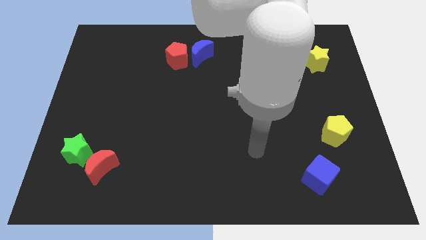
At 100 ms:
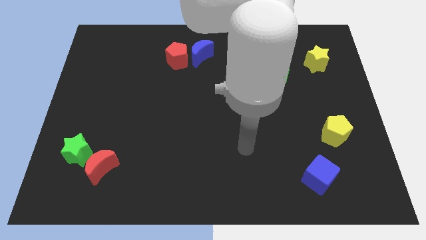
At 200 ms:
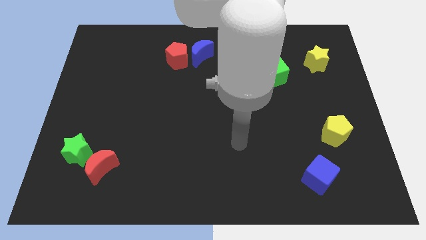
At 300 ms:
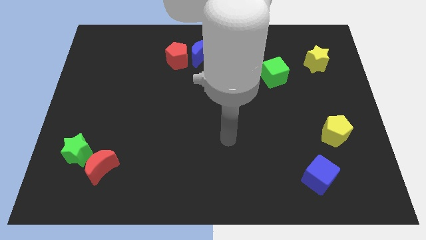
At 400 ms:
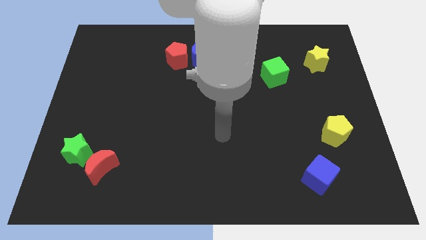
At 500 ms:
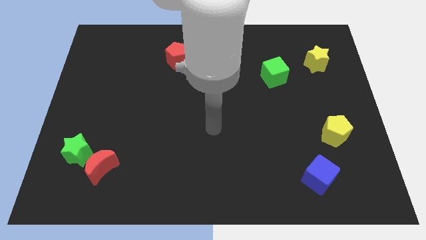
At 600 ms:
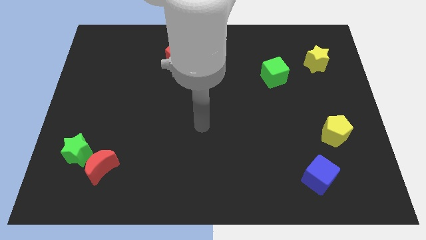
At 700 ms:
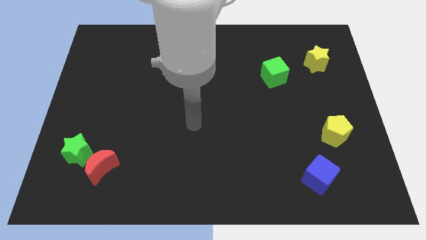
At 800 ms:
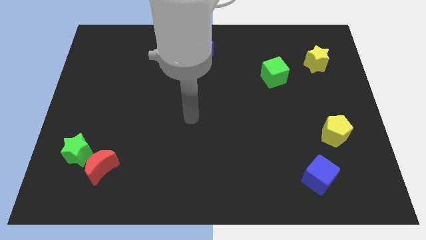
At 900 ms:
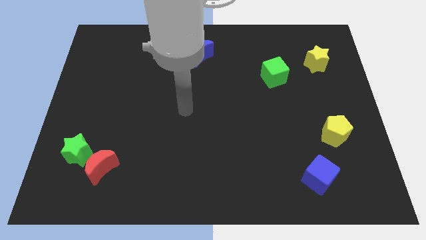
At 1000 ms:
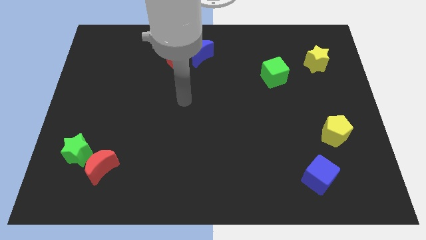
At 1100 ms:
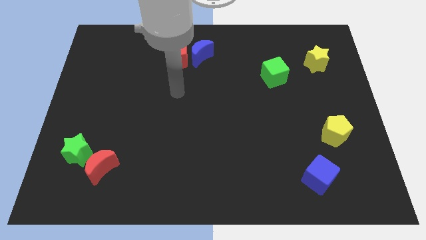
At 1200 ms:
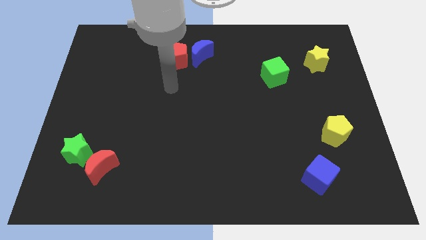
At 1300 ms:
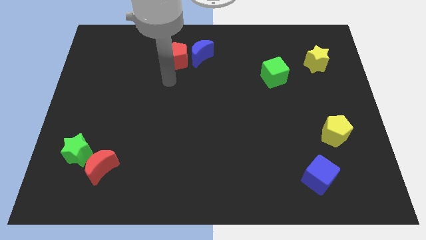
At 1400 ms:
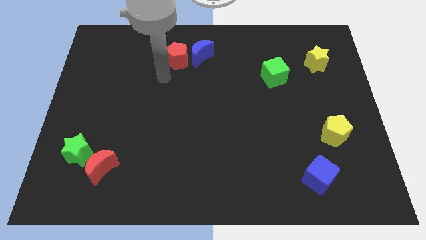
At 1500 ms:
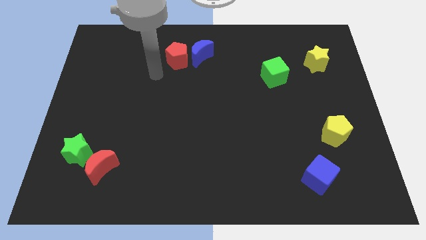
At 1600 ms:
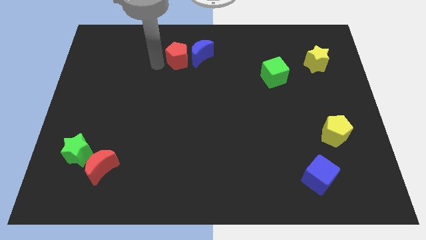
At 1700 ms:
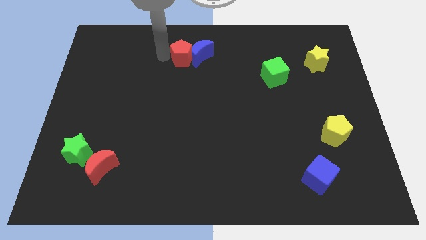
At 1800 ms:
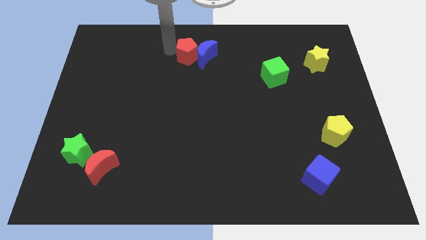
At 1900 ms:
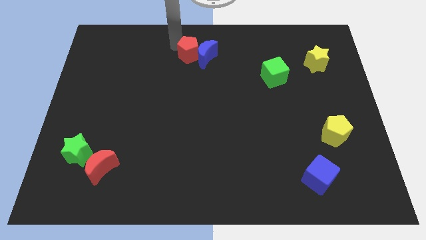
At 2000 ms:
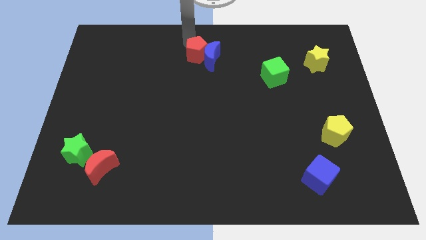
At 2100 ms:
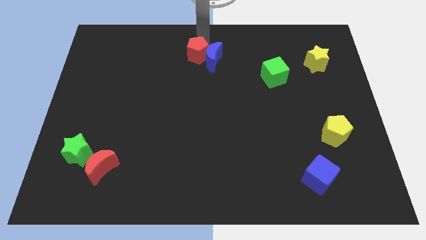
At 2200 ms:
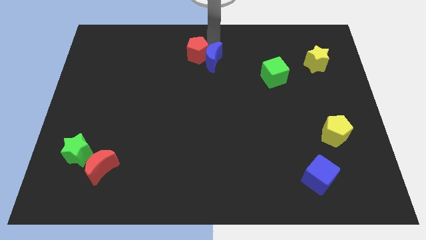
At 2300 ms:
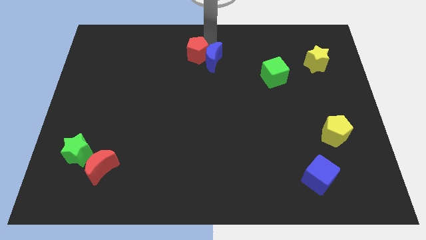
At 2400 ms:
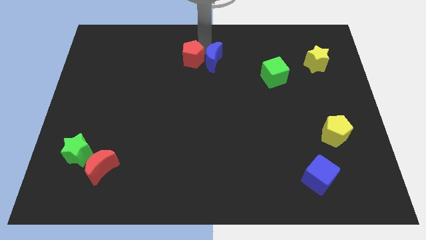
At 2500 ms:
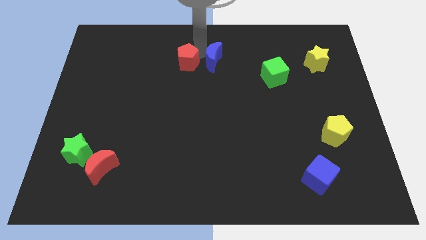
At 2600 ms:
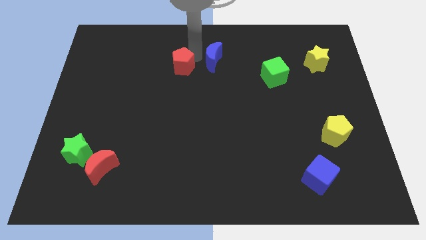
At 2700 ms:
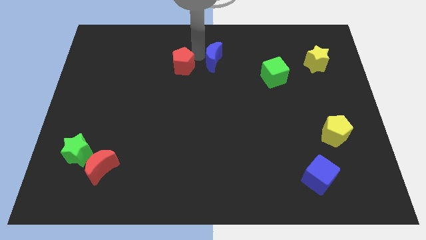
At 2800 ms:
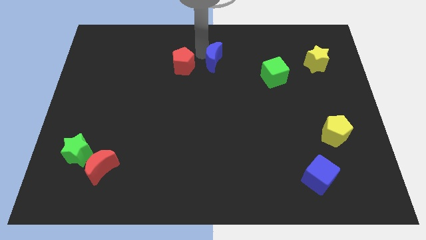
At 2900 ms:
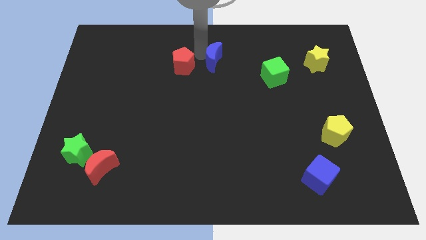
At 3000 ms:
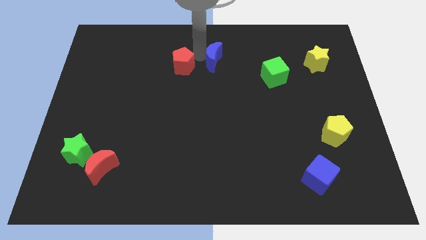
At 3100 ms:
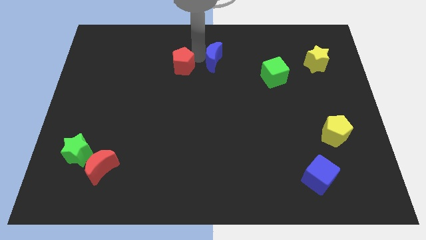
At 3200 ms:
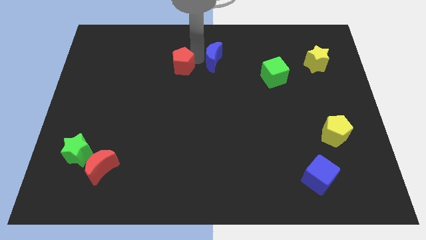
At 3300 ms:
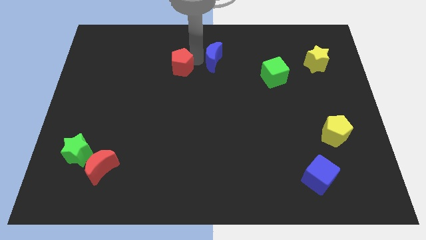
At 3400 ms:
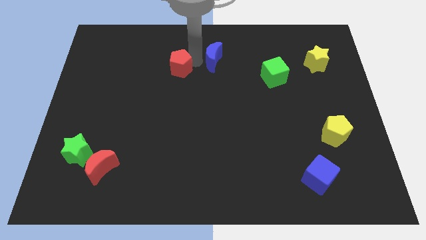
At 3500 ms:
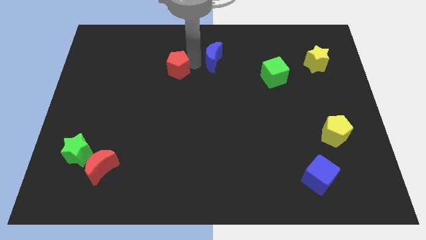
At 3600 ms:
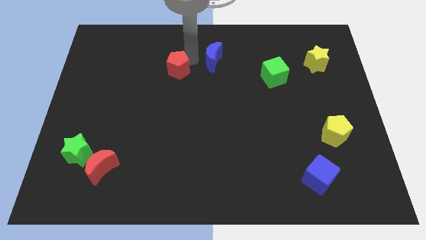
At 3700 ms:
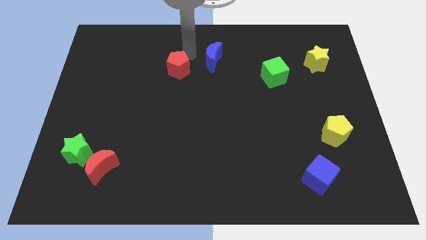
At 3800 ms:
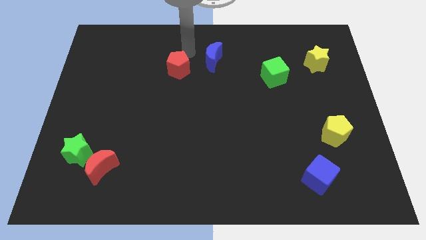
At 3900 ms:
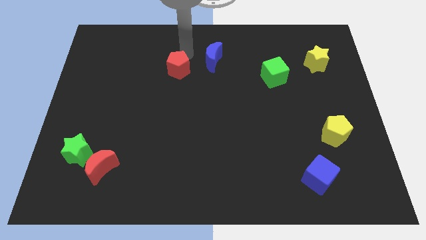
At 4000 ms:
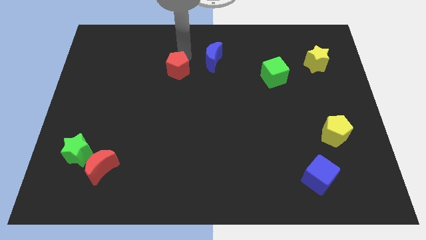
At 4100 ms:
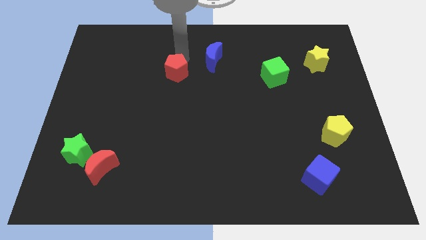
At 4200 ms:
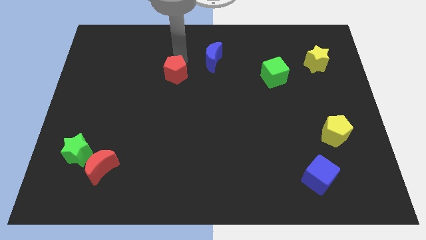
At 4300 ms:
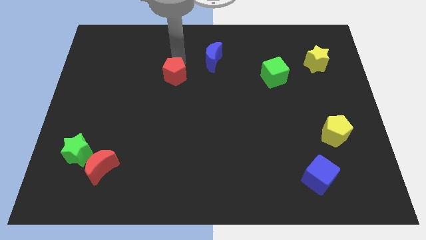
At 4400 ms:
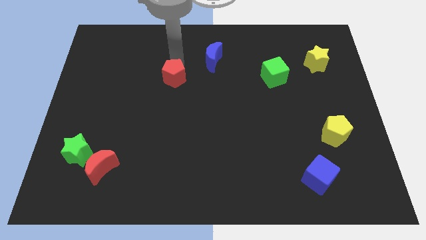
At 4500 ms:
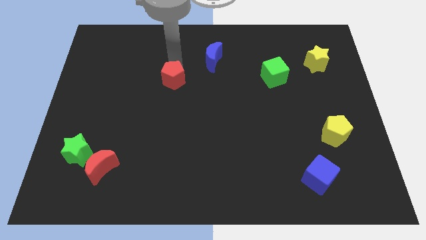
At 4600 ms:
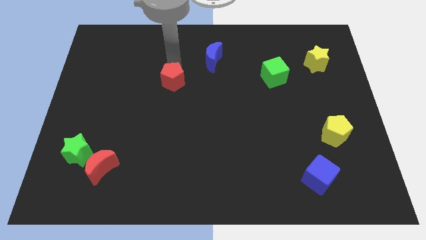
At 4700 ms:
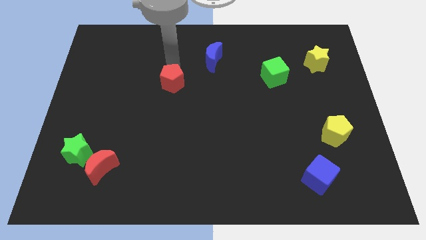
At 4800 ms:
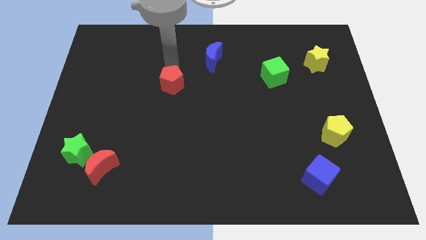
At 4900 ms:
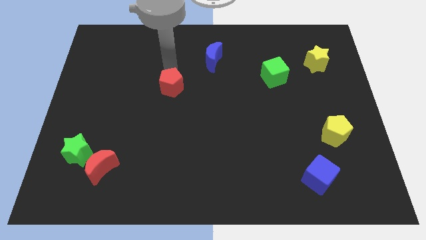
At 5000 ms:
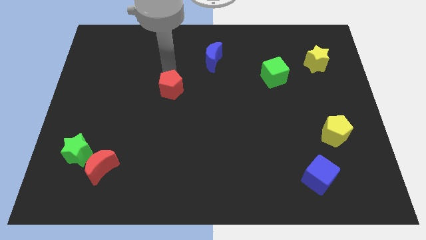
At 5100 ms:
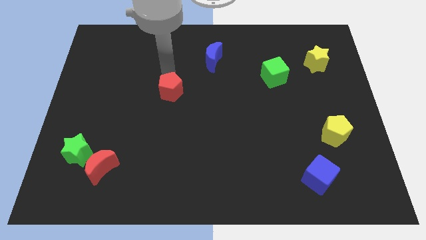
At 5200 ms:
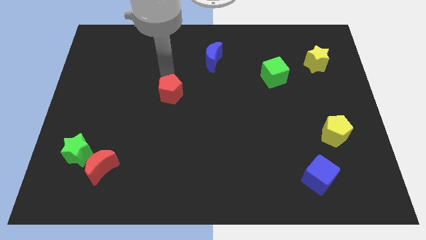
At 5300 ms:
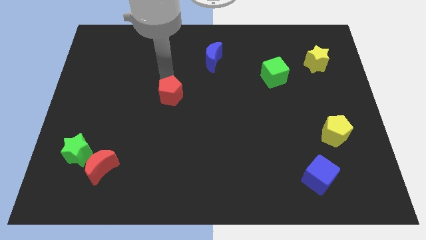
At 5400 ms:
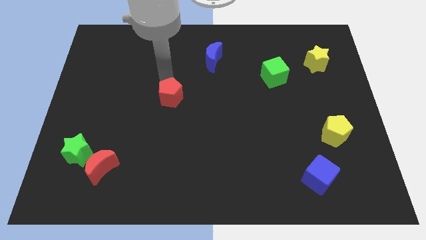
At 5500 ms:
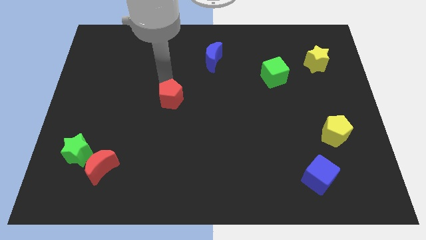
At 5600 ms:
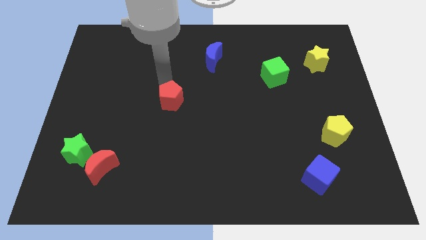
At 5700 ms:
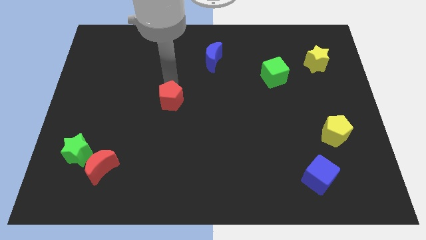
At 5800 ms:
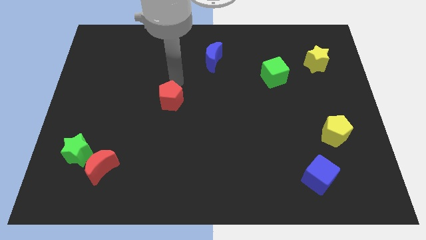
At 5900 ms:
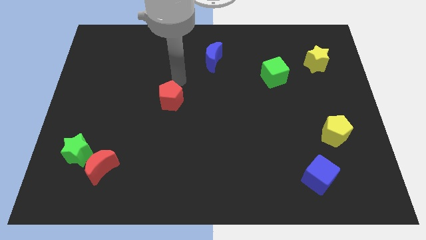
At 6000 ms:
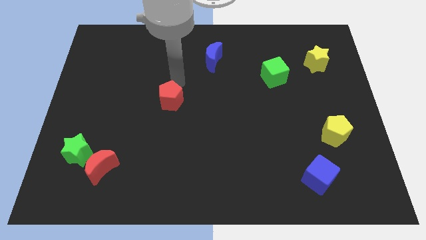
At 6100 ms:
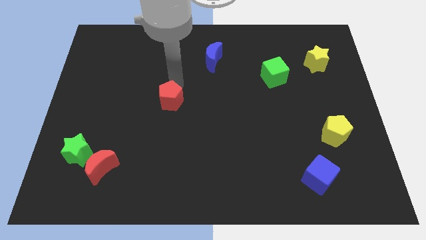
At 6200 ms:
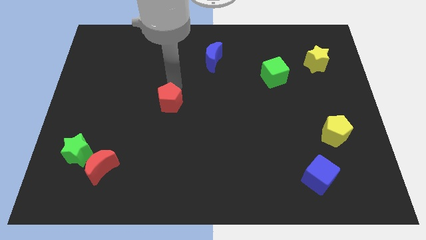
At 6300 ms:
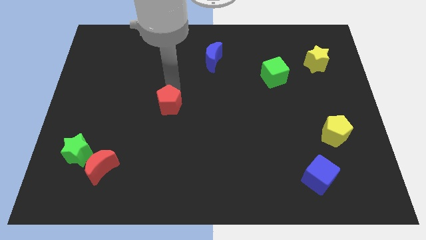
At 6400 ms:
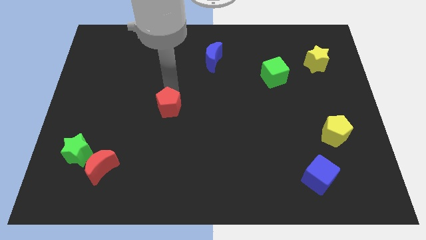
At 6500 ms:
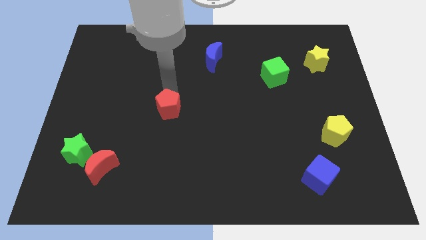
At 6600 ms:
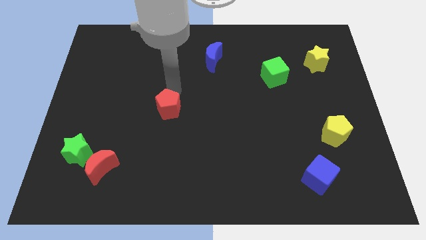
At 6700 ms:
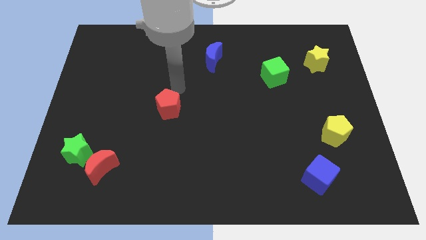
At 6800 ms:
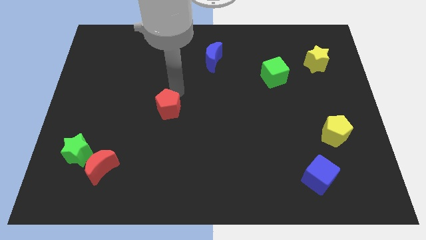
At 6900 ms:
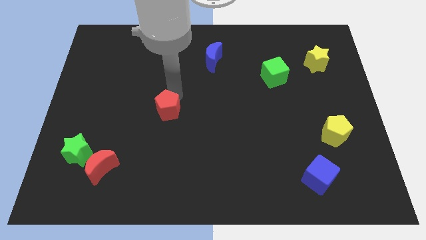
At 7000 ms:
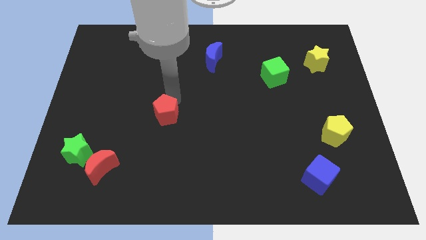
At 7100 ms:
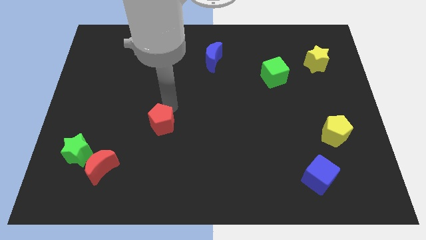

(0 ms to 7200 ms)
slide the red pentagon down

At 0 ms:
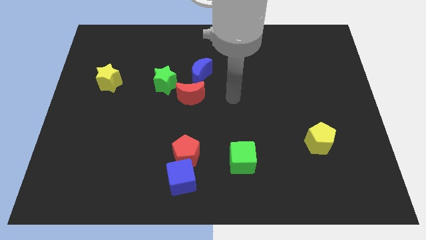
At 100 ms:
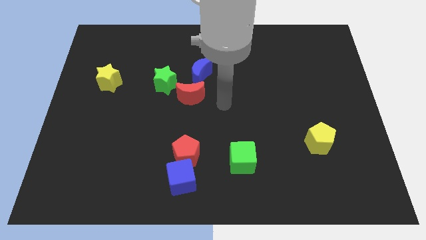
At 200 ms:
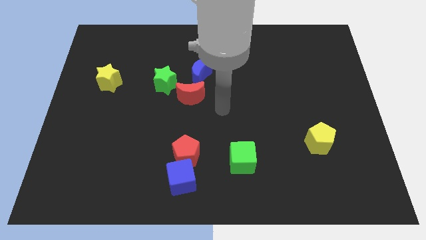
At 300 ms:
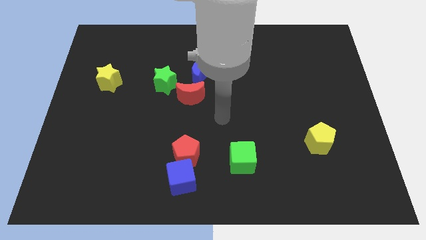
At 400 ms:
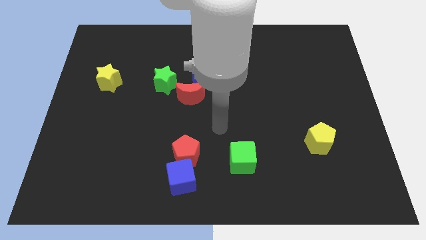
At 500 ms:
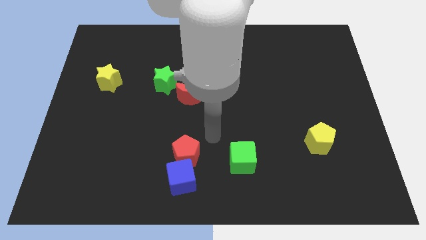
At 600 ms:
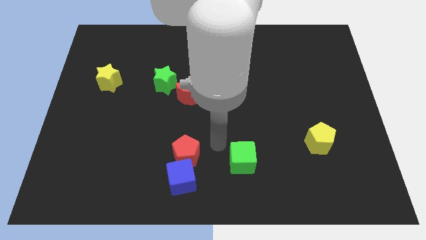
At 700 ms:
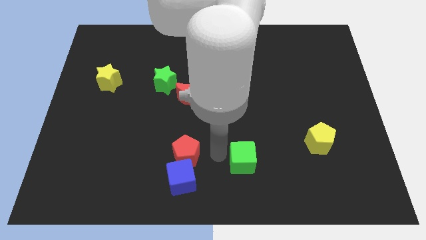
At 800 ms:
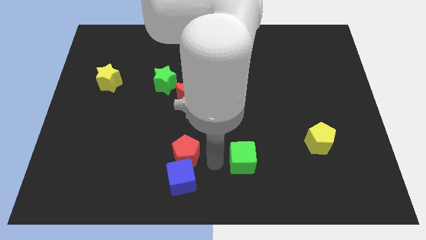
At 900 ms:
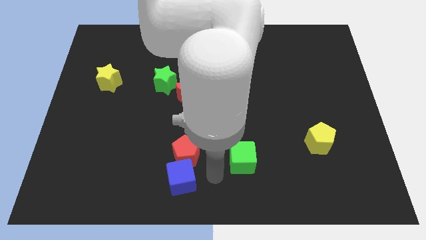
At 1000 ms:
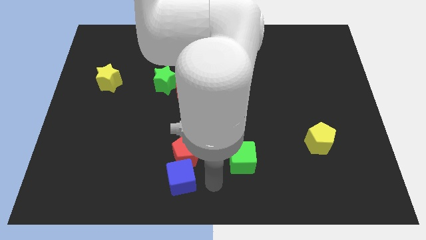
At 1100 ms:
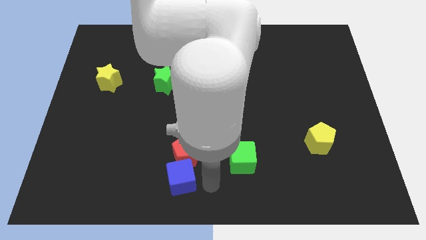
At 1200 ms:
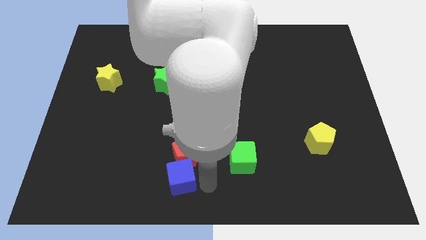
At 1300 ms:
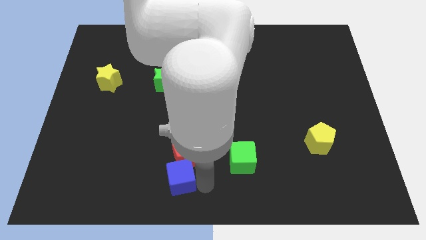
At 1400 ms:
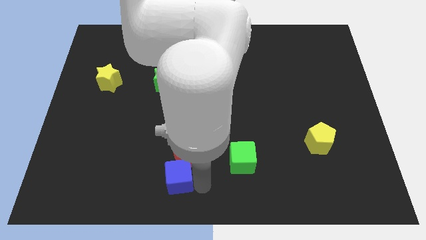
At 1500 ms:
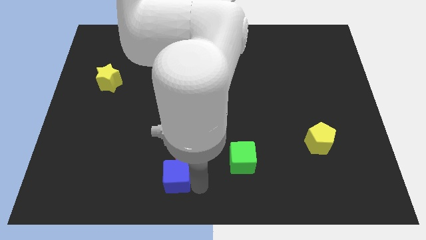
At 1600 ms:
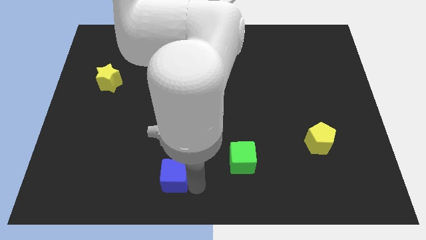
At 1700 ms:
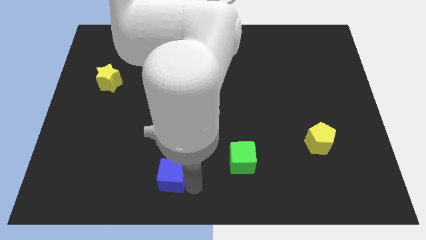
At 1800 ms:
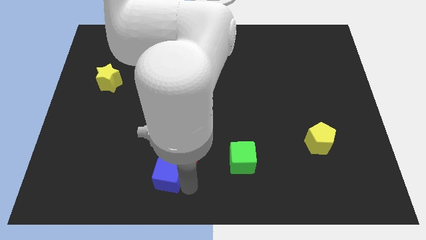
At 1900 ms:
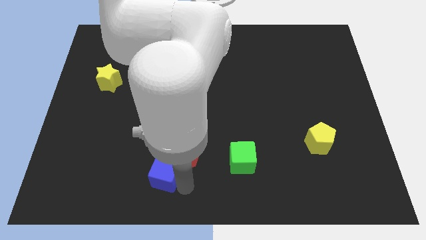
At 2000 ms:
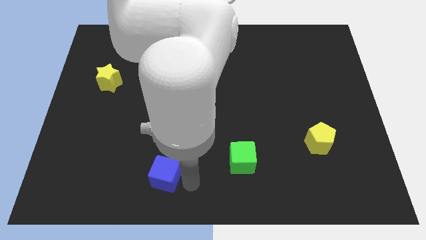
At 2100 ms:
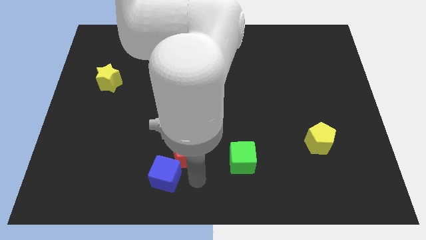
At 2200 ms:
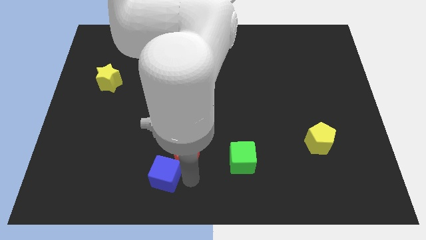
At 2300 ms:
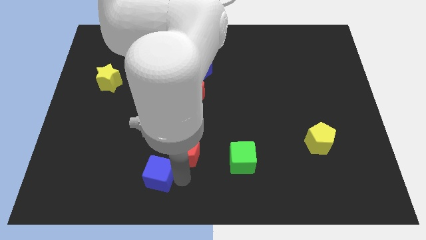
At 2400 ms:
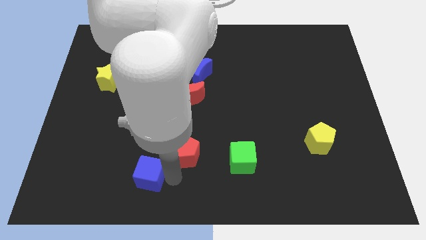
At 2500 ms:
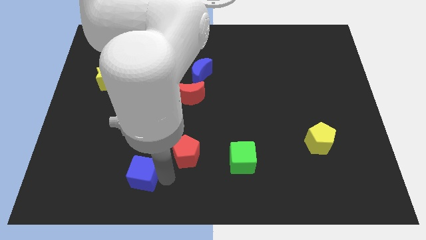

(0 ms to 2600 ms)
push the blue cube to the left slightly
